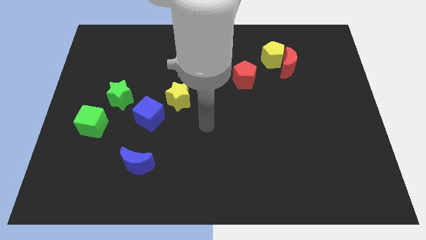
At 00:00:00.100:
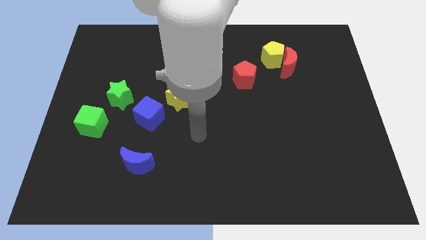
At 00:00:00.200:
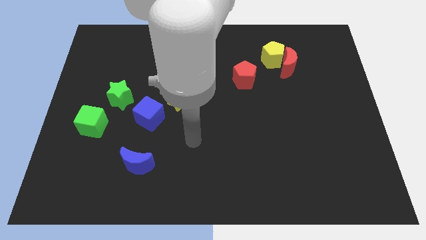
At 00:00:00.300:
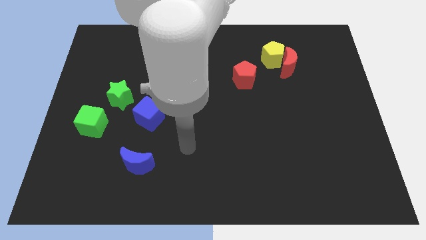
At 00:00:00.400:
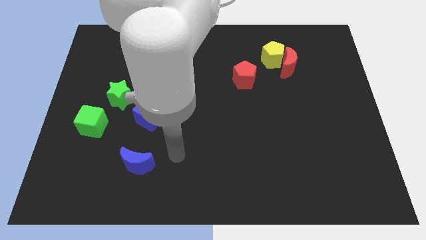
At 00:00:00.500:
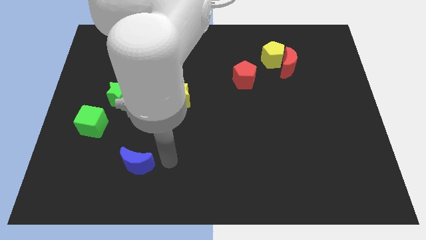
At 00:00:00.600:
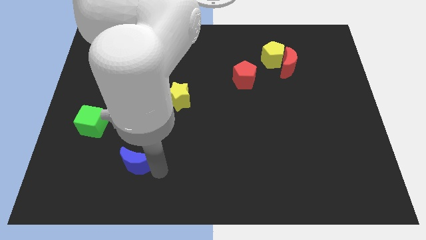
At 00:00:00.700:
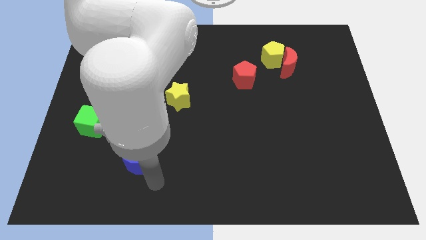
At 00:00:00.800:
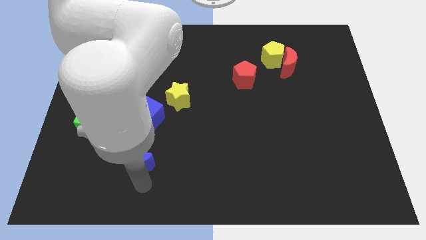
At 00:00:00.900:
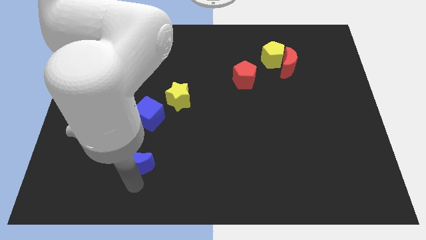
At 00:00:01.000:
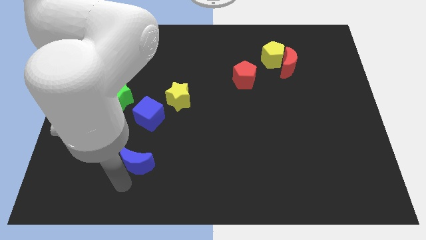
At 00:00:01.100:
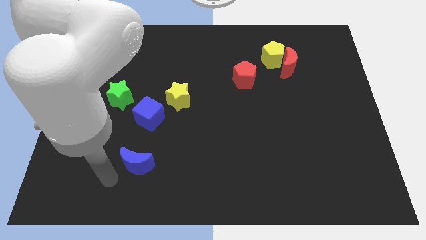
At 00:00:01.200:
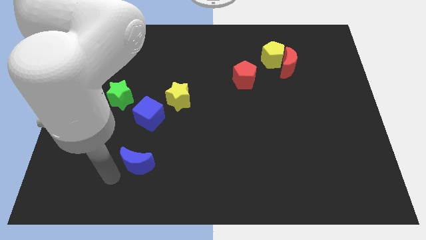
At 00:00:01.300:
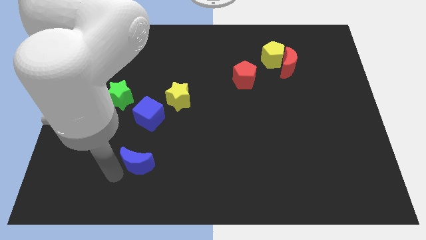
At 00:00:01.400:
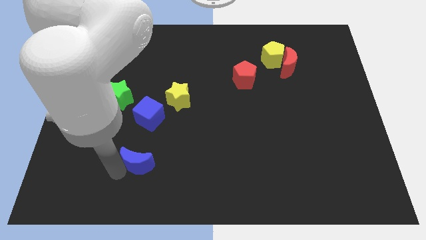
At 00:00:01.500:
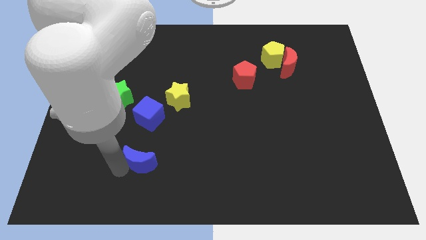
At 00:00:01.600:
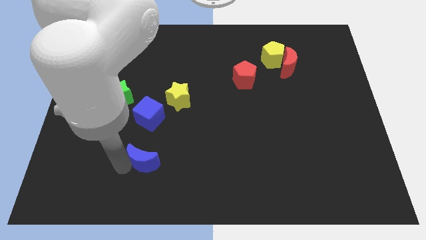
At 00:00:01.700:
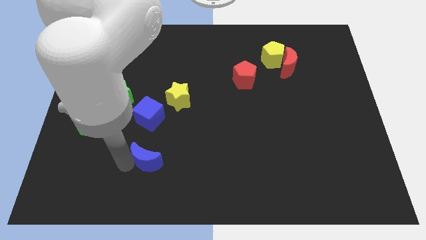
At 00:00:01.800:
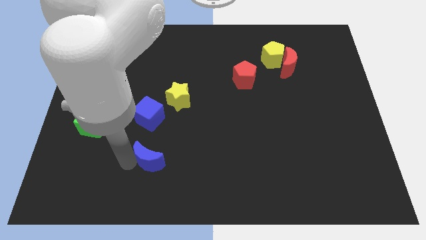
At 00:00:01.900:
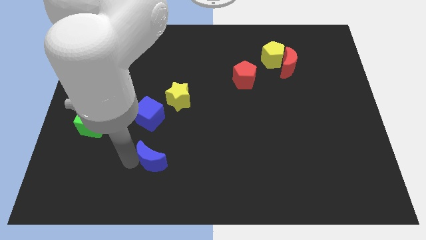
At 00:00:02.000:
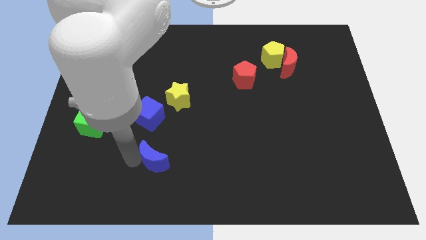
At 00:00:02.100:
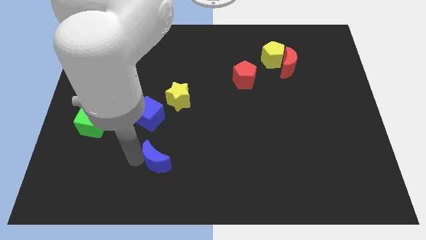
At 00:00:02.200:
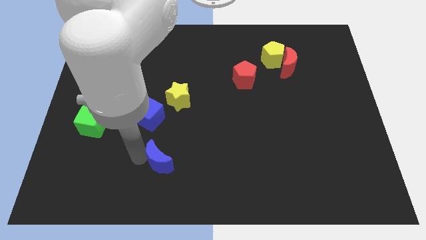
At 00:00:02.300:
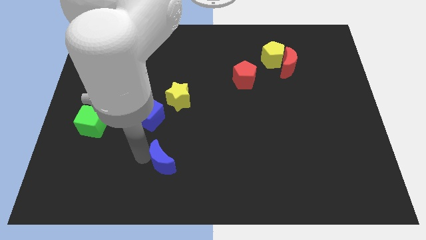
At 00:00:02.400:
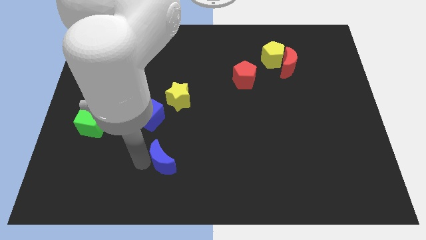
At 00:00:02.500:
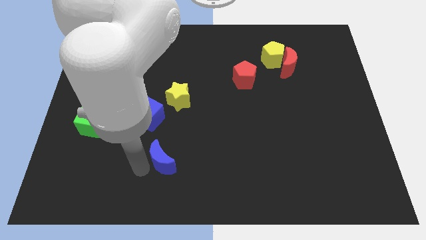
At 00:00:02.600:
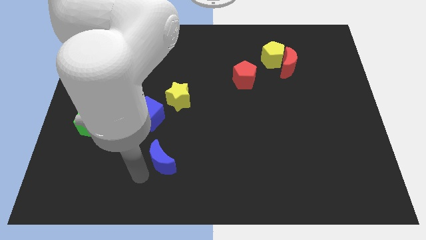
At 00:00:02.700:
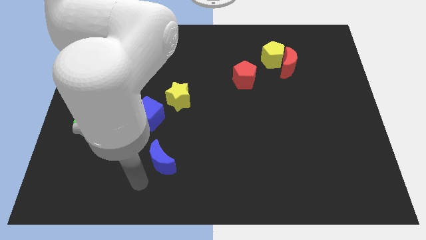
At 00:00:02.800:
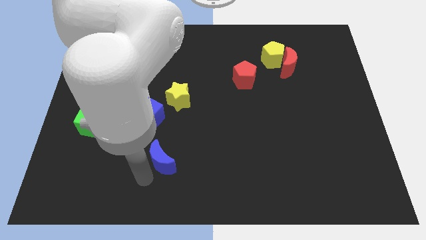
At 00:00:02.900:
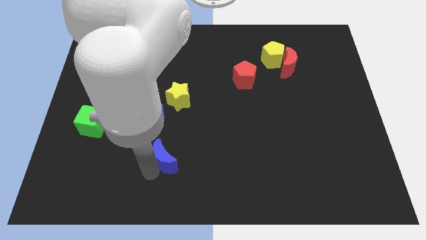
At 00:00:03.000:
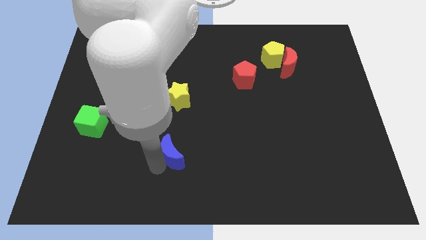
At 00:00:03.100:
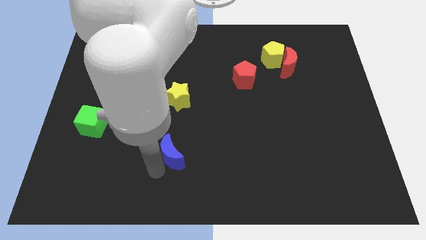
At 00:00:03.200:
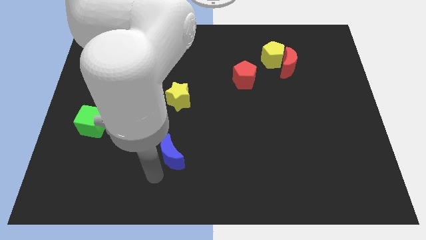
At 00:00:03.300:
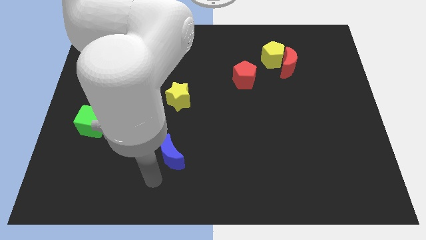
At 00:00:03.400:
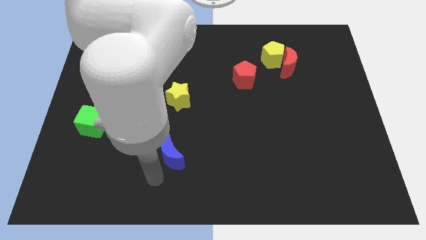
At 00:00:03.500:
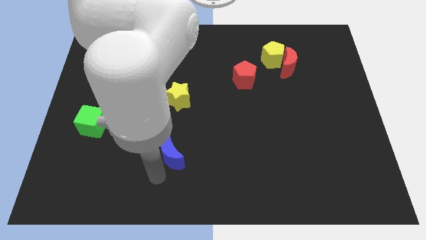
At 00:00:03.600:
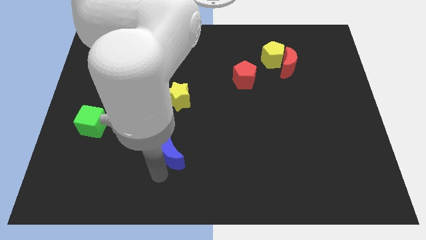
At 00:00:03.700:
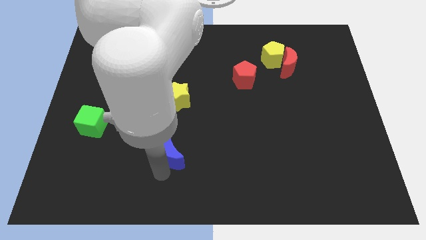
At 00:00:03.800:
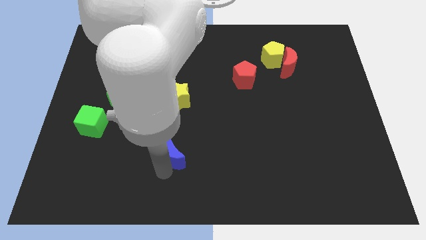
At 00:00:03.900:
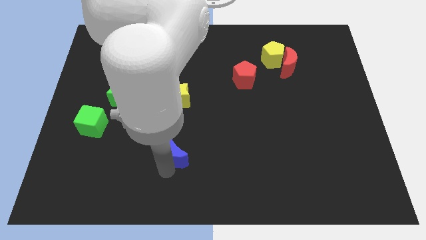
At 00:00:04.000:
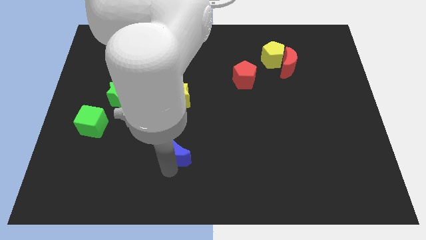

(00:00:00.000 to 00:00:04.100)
push the blue moon diagonally upwards and right somewhat

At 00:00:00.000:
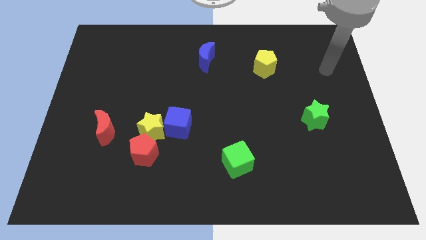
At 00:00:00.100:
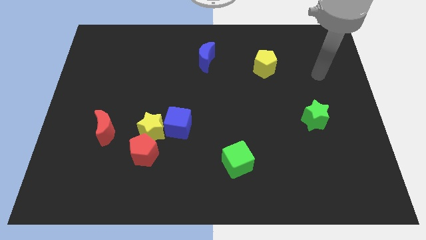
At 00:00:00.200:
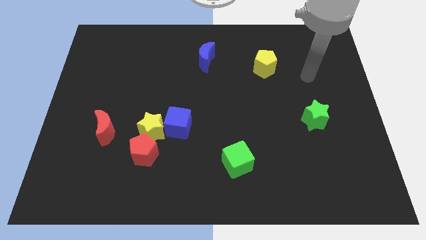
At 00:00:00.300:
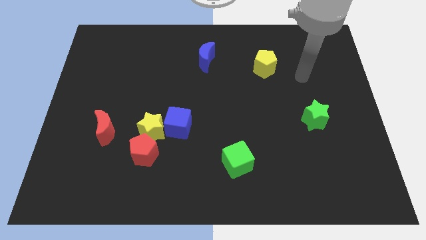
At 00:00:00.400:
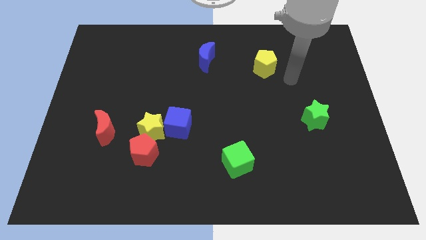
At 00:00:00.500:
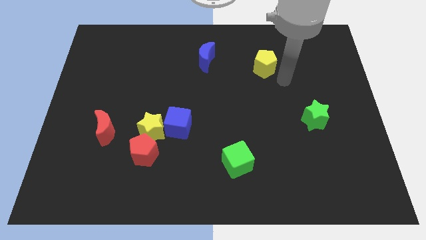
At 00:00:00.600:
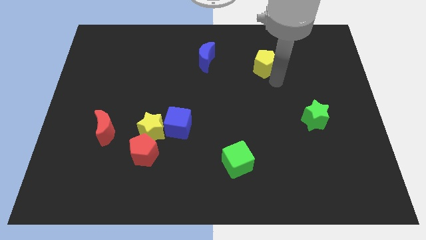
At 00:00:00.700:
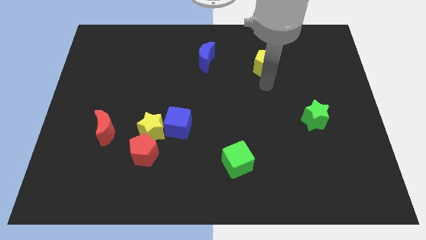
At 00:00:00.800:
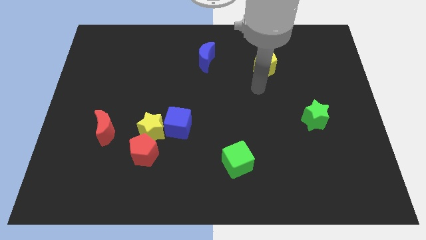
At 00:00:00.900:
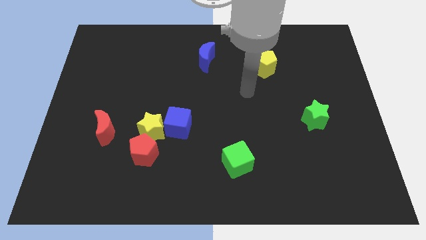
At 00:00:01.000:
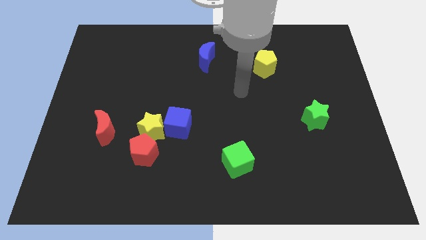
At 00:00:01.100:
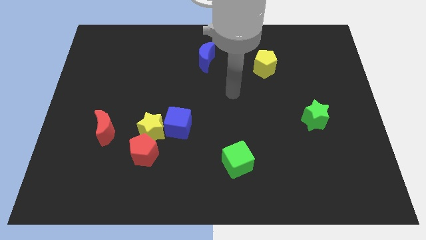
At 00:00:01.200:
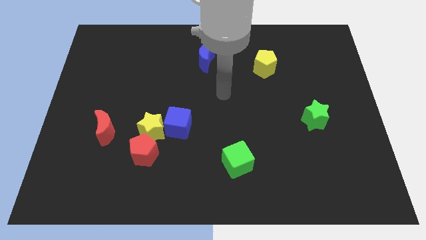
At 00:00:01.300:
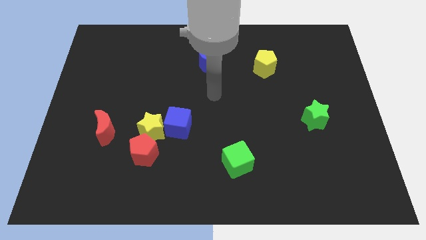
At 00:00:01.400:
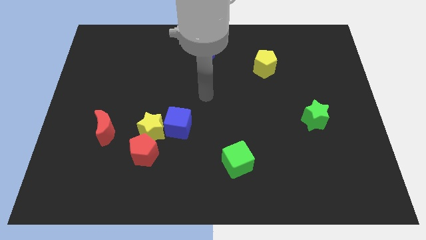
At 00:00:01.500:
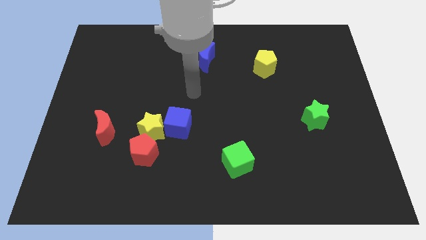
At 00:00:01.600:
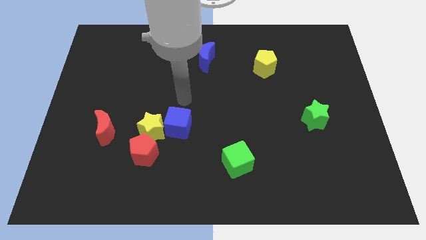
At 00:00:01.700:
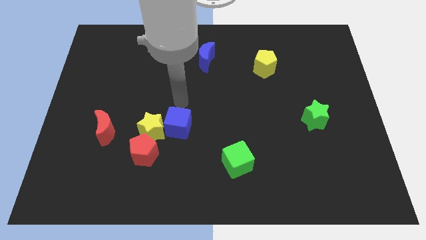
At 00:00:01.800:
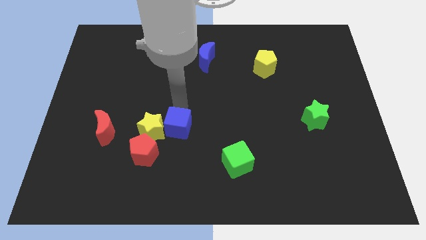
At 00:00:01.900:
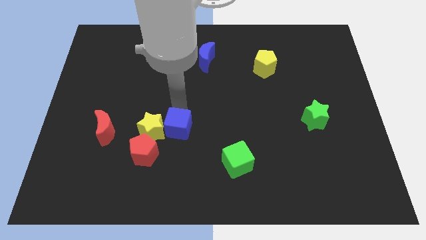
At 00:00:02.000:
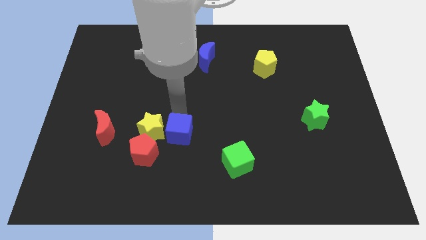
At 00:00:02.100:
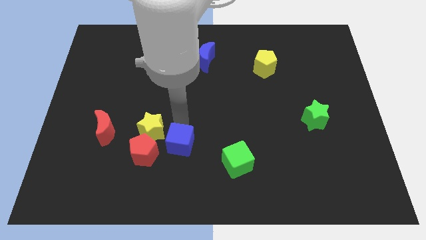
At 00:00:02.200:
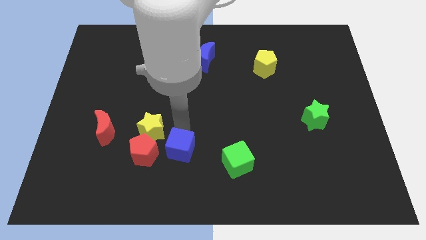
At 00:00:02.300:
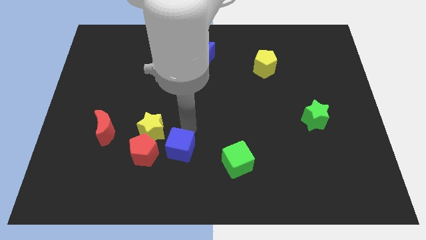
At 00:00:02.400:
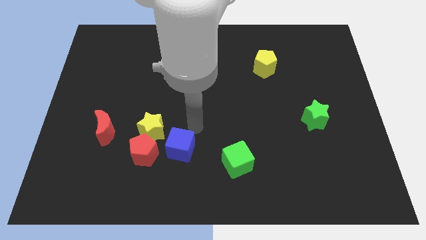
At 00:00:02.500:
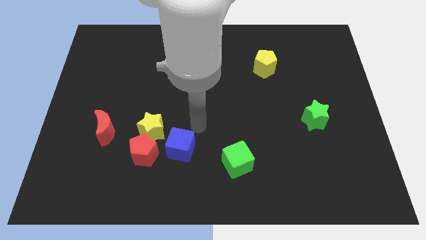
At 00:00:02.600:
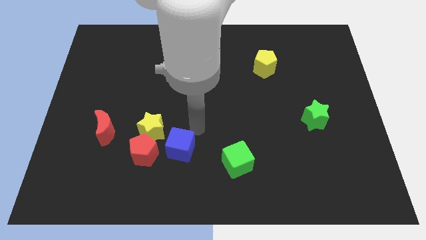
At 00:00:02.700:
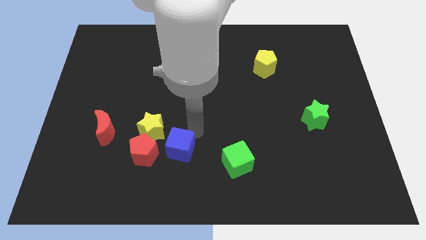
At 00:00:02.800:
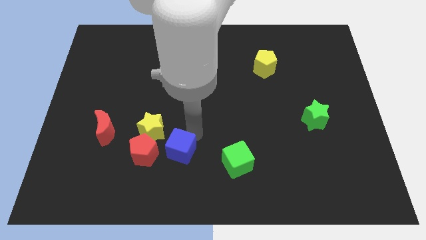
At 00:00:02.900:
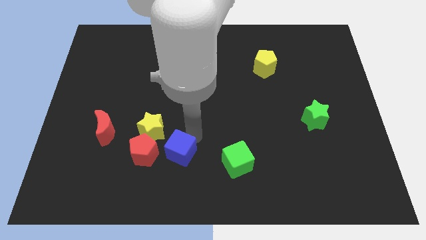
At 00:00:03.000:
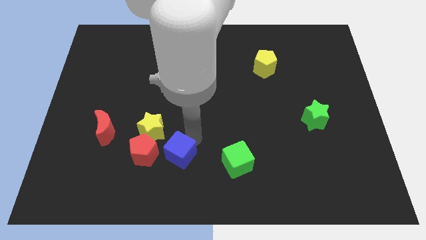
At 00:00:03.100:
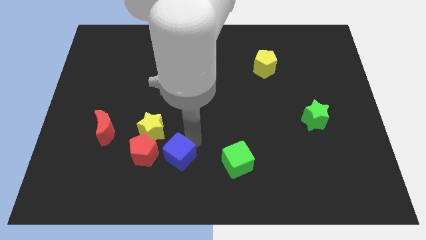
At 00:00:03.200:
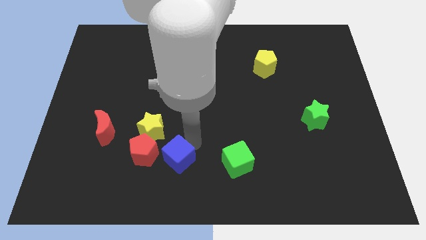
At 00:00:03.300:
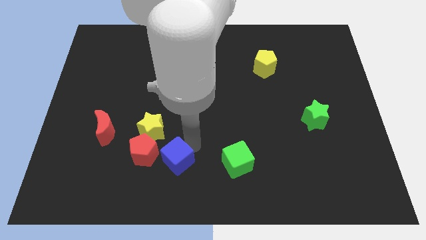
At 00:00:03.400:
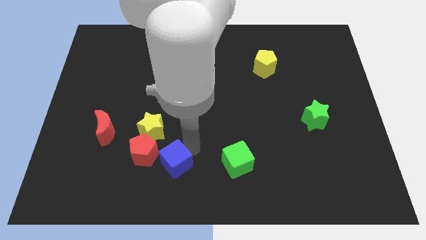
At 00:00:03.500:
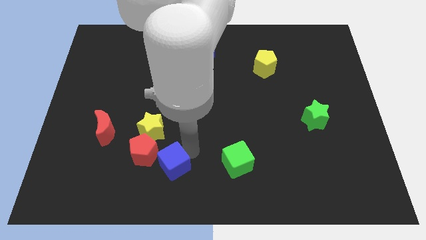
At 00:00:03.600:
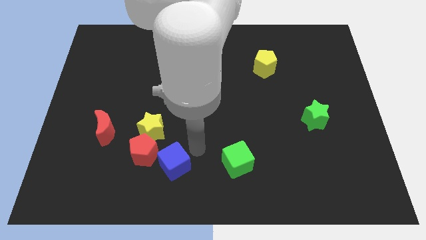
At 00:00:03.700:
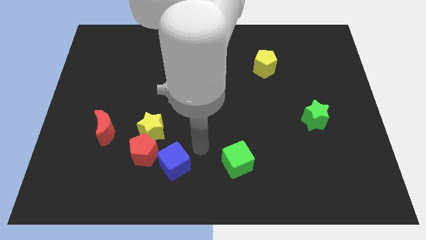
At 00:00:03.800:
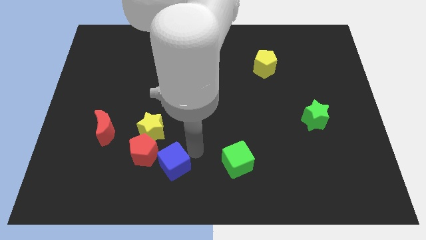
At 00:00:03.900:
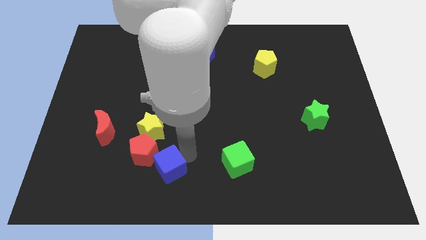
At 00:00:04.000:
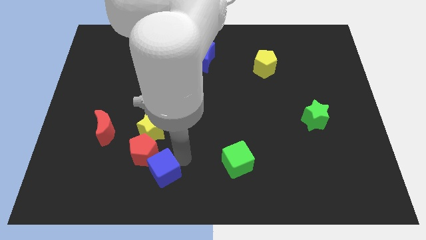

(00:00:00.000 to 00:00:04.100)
move the blue cube a little downwards and to the left
